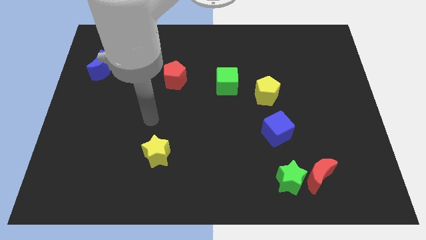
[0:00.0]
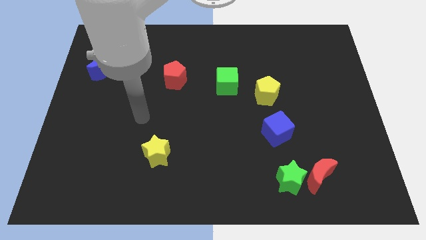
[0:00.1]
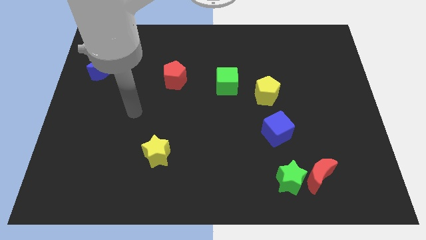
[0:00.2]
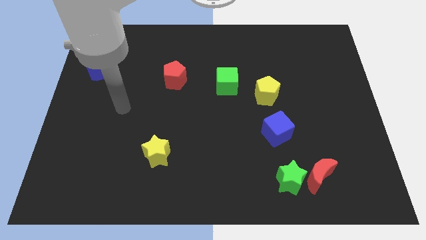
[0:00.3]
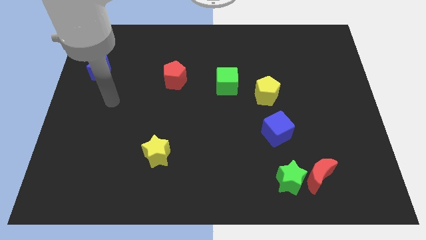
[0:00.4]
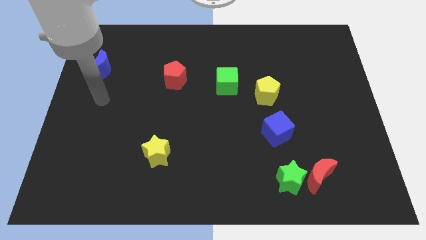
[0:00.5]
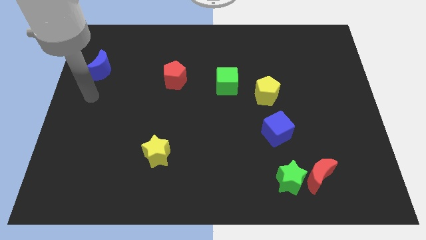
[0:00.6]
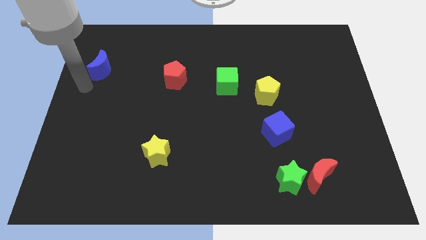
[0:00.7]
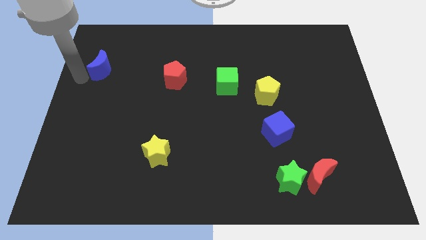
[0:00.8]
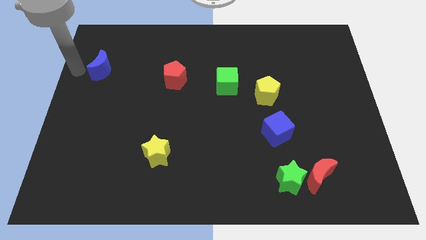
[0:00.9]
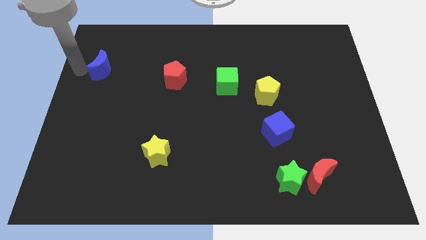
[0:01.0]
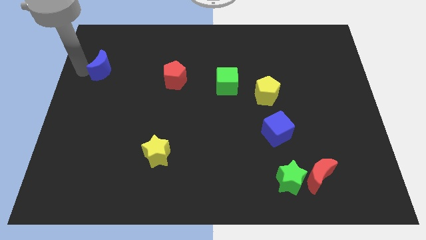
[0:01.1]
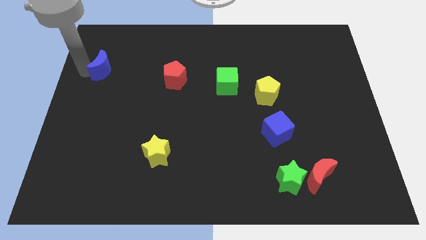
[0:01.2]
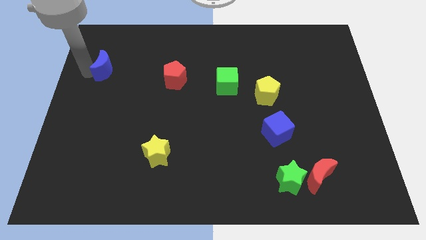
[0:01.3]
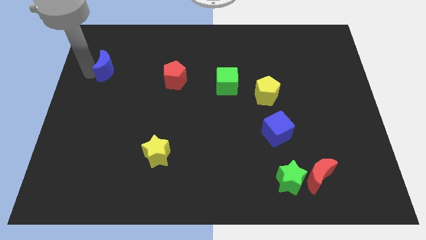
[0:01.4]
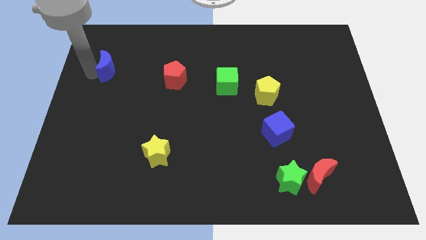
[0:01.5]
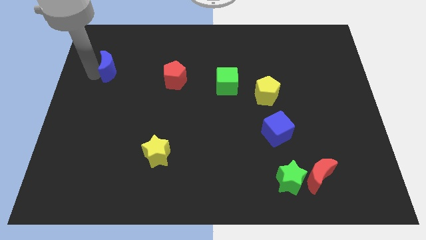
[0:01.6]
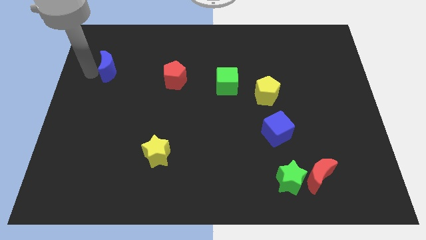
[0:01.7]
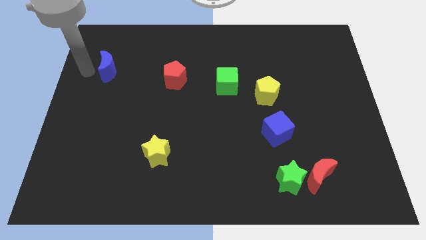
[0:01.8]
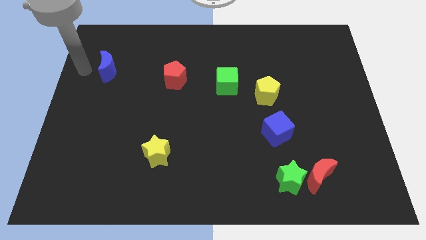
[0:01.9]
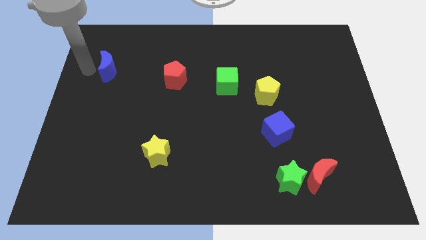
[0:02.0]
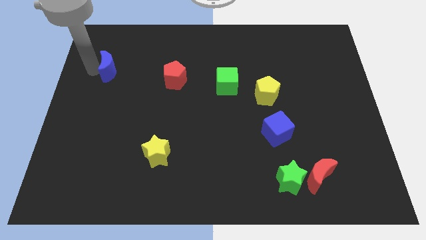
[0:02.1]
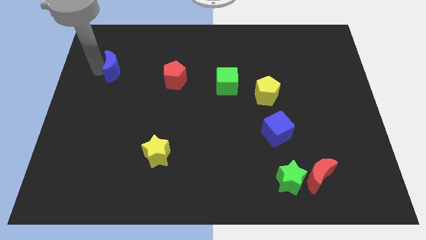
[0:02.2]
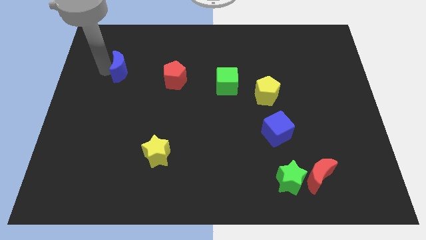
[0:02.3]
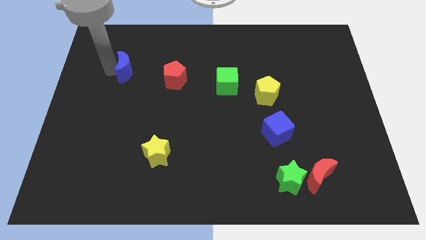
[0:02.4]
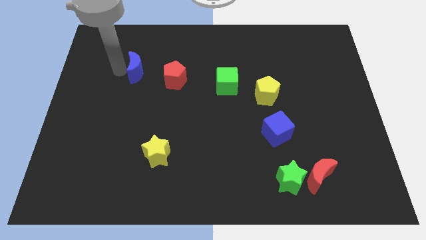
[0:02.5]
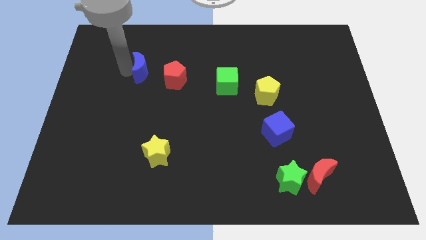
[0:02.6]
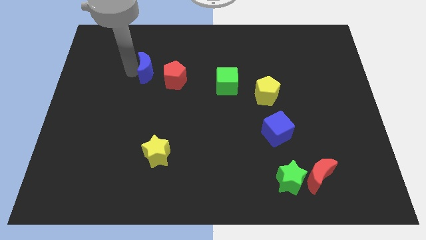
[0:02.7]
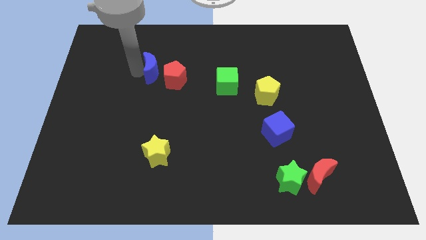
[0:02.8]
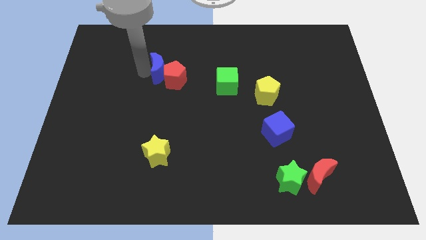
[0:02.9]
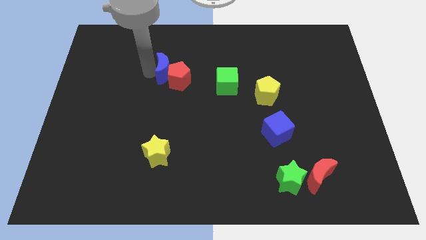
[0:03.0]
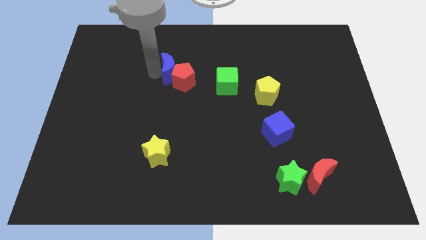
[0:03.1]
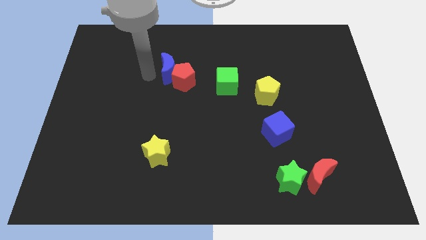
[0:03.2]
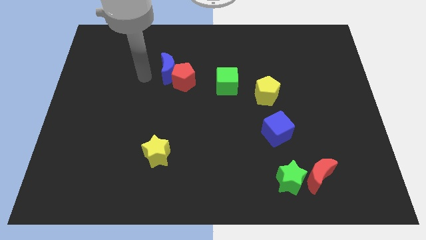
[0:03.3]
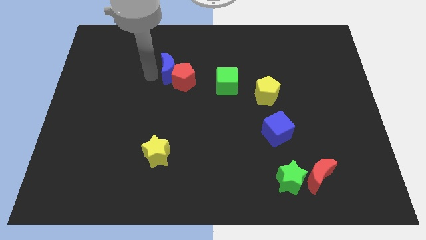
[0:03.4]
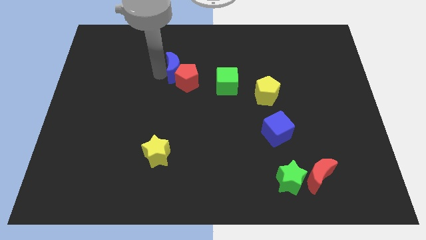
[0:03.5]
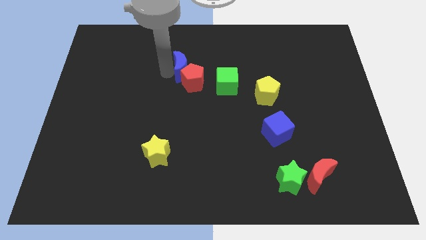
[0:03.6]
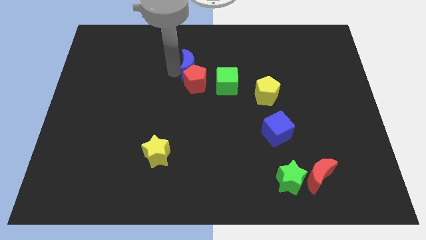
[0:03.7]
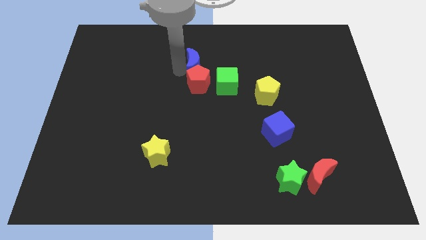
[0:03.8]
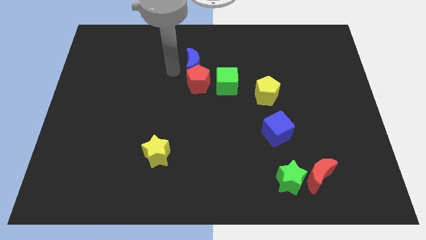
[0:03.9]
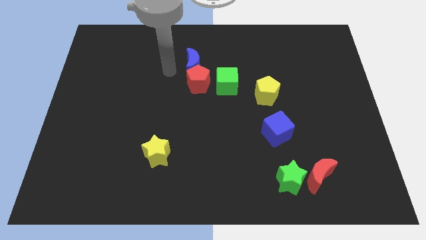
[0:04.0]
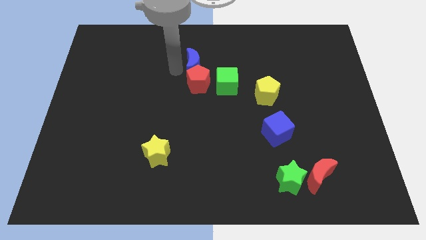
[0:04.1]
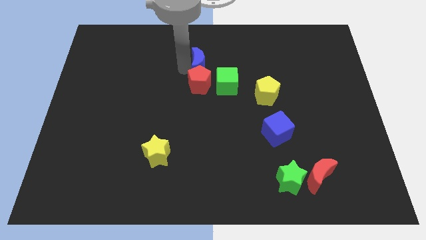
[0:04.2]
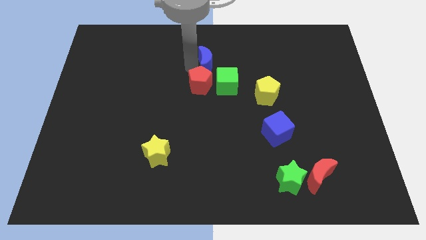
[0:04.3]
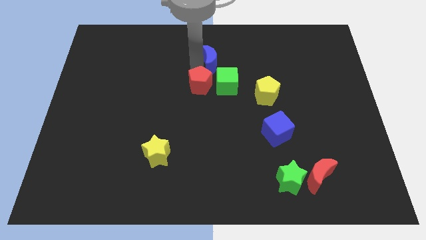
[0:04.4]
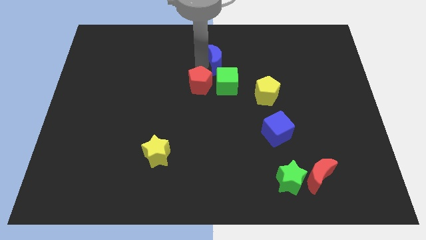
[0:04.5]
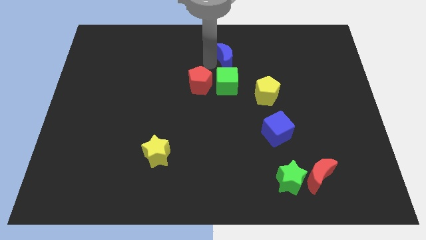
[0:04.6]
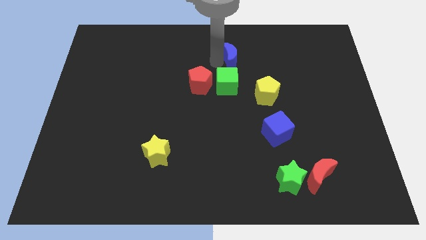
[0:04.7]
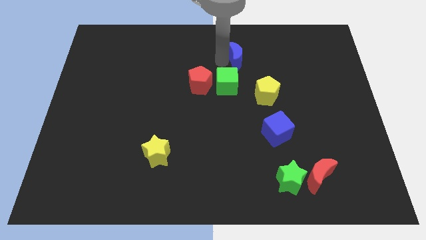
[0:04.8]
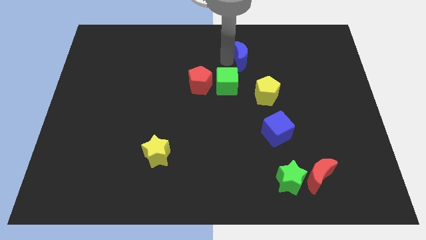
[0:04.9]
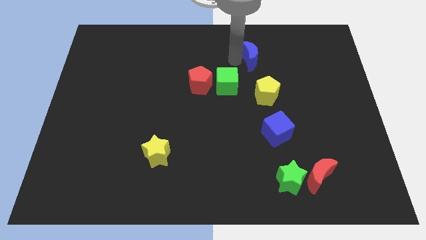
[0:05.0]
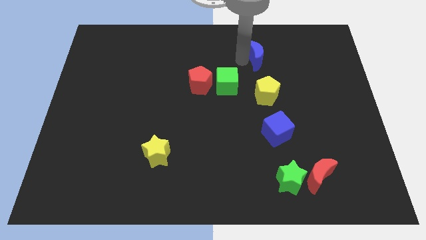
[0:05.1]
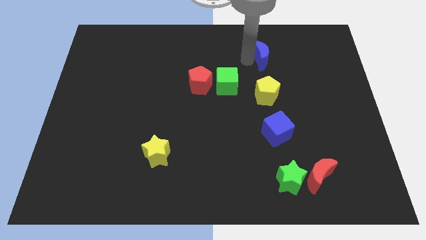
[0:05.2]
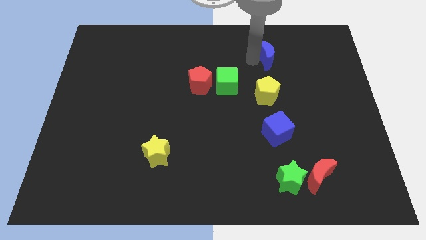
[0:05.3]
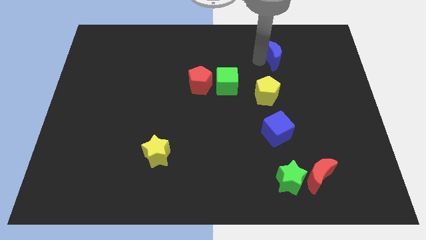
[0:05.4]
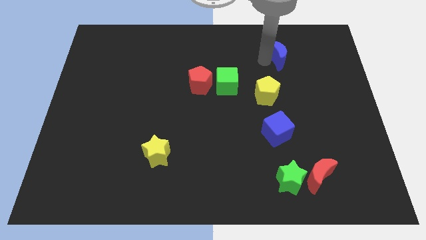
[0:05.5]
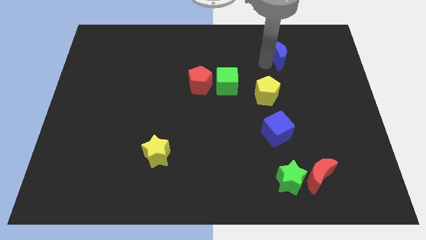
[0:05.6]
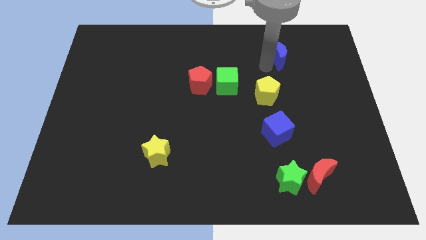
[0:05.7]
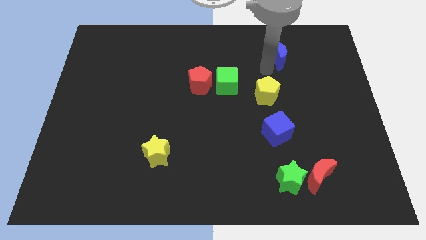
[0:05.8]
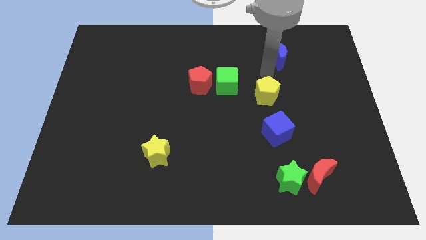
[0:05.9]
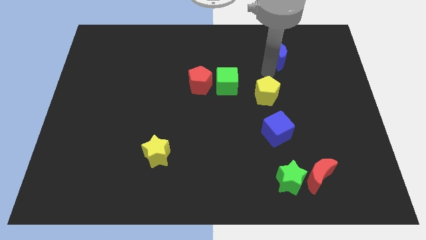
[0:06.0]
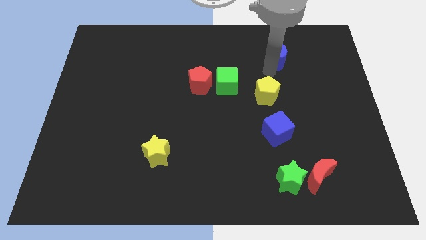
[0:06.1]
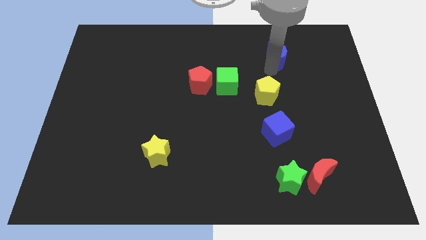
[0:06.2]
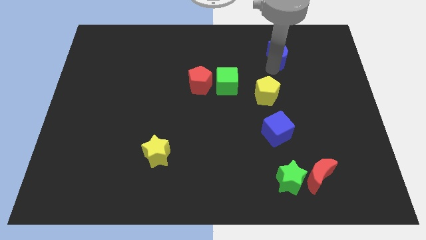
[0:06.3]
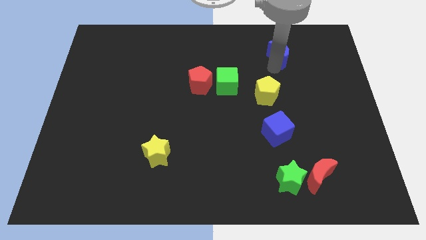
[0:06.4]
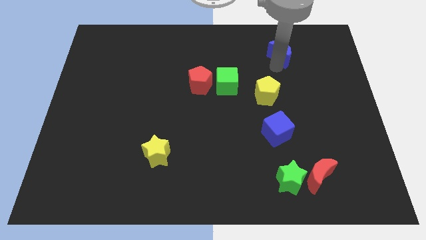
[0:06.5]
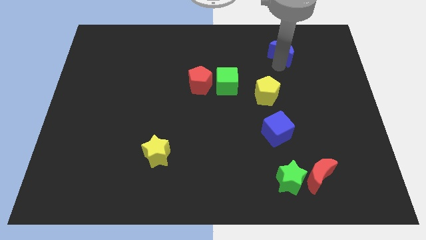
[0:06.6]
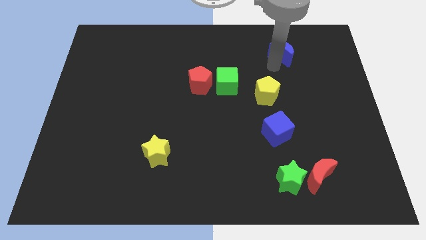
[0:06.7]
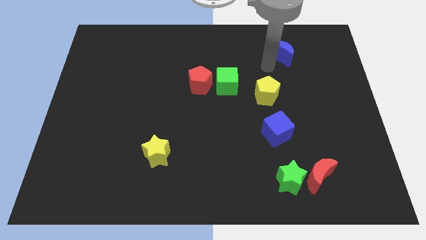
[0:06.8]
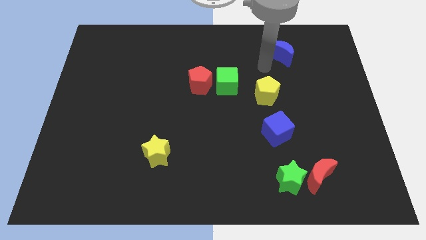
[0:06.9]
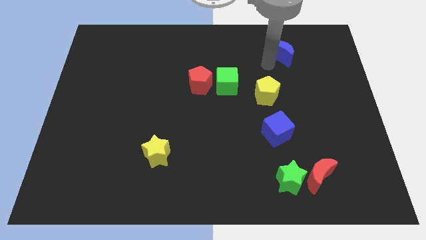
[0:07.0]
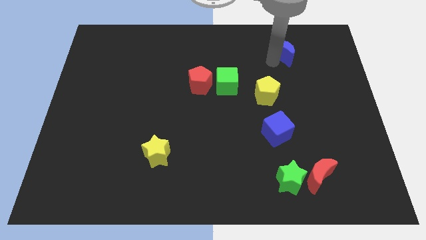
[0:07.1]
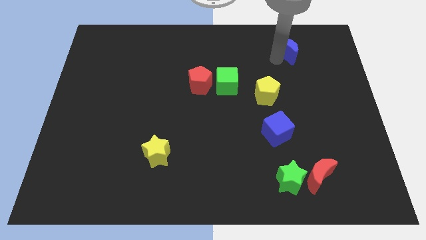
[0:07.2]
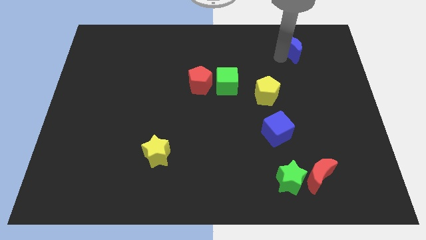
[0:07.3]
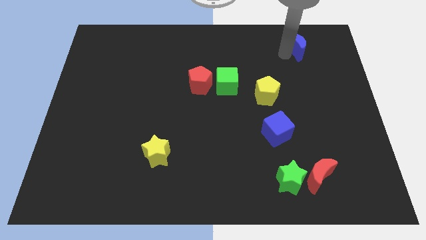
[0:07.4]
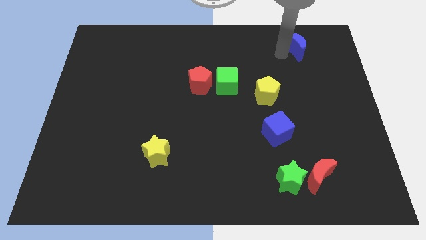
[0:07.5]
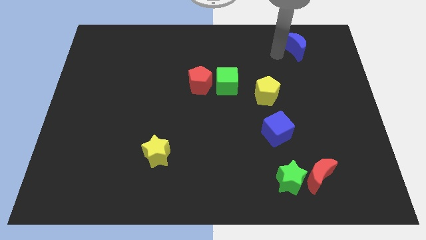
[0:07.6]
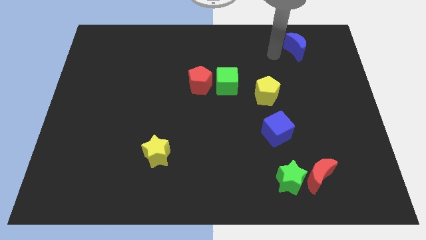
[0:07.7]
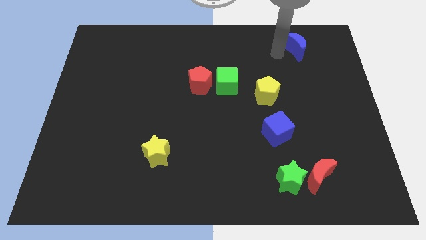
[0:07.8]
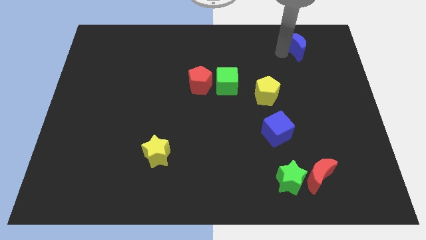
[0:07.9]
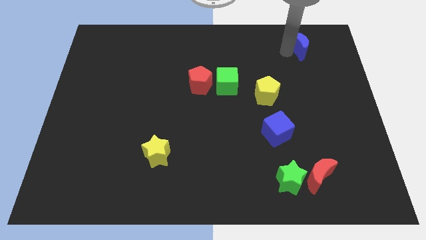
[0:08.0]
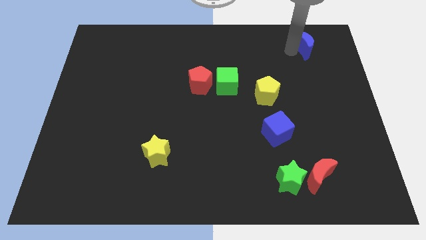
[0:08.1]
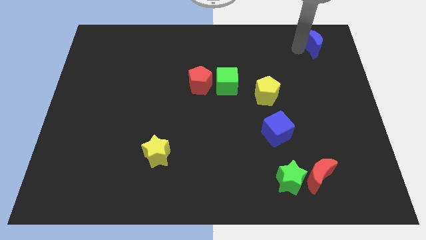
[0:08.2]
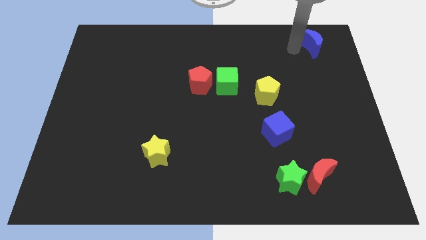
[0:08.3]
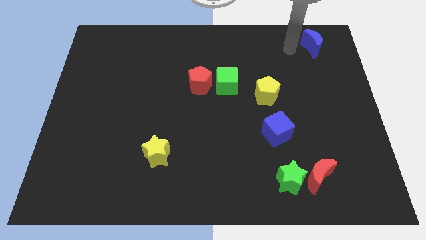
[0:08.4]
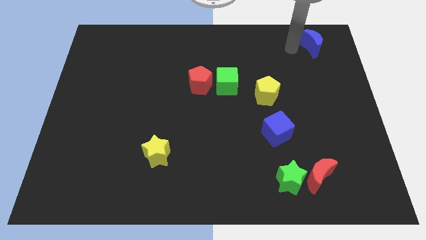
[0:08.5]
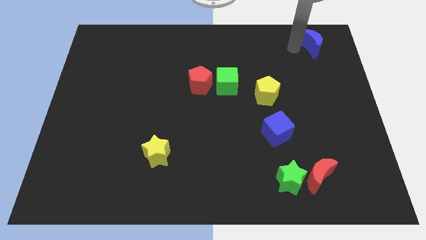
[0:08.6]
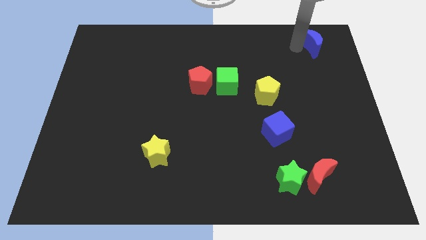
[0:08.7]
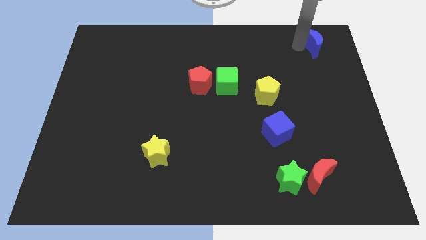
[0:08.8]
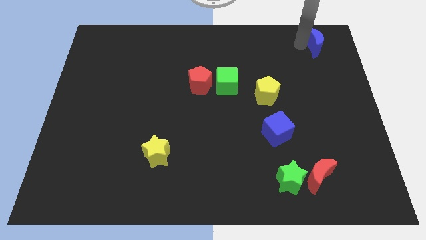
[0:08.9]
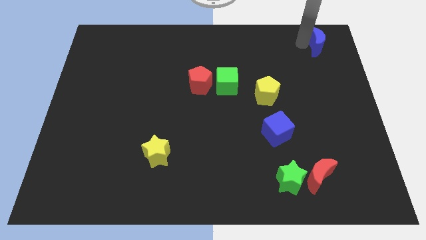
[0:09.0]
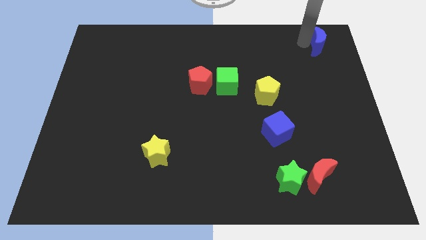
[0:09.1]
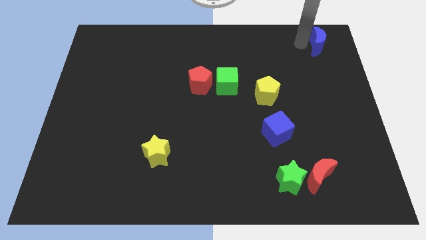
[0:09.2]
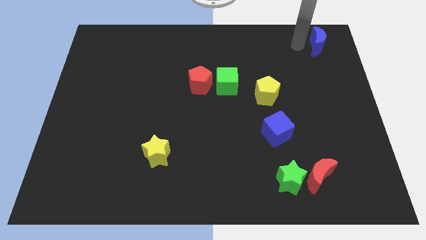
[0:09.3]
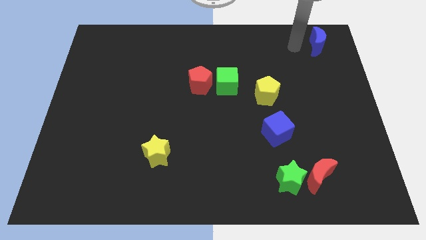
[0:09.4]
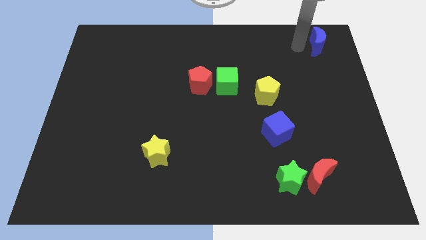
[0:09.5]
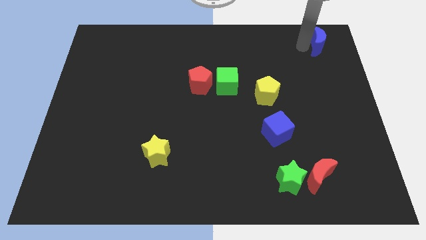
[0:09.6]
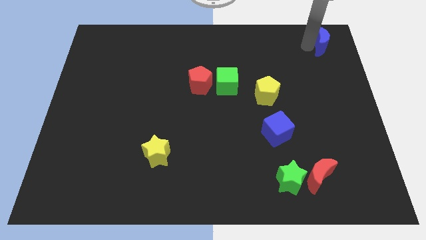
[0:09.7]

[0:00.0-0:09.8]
move the blue moon to the top right of the board
